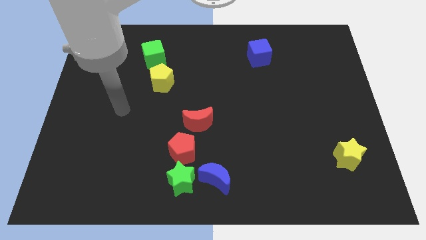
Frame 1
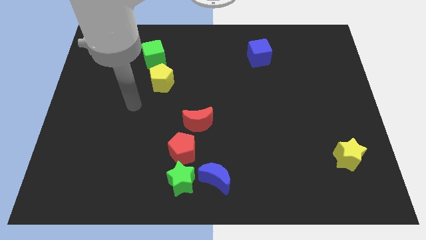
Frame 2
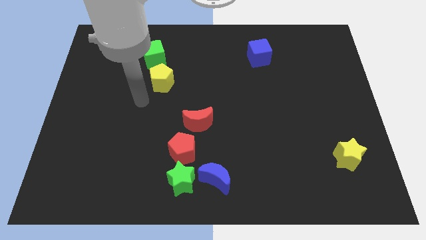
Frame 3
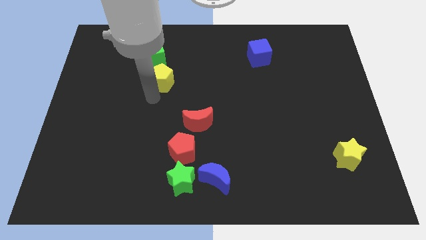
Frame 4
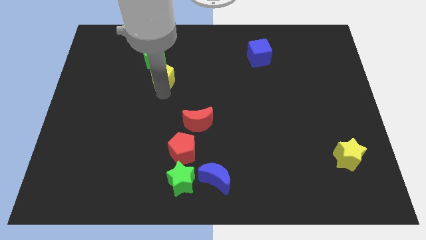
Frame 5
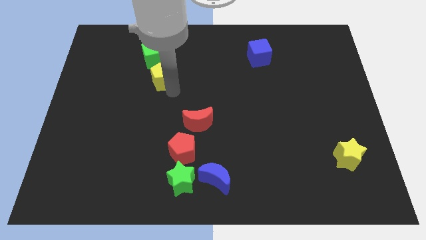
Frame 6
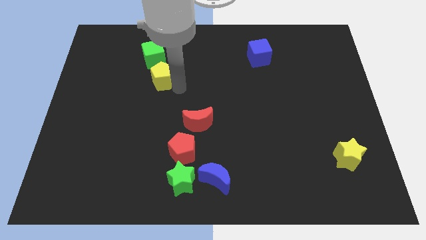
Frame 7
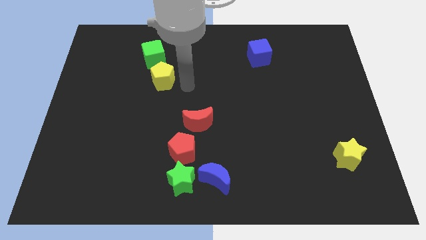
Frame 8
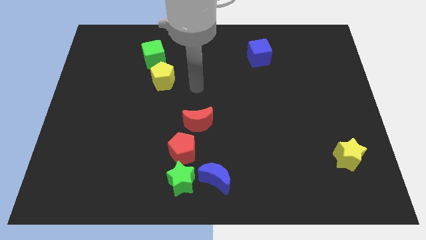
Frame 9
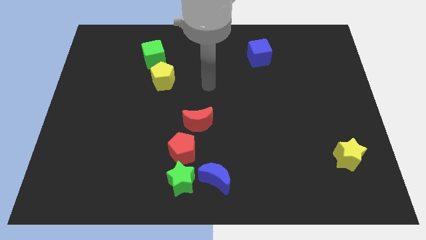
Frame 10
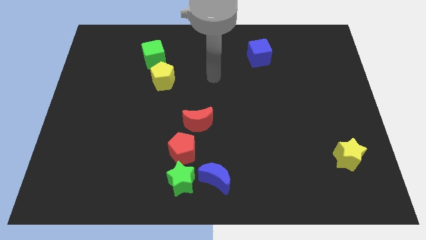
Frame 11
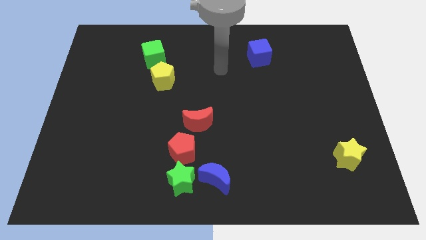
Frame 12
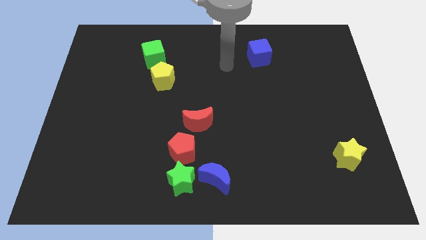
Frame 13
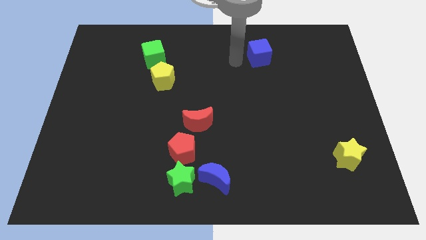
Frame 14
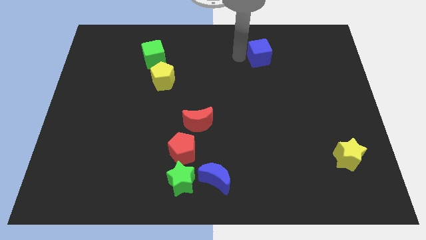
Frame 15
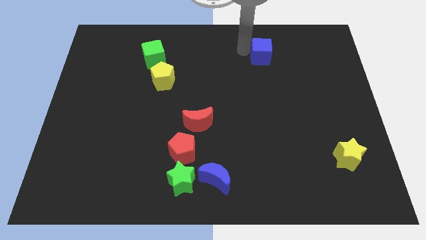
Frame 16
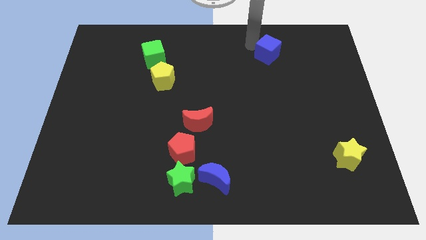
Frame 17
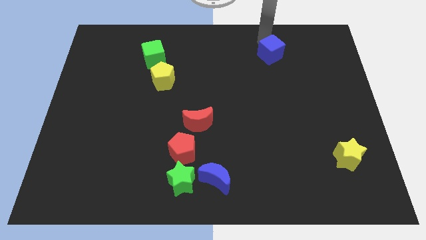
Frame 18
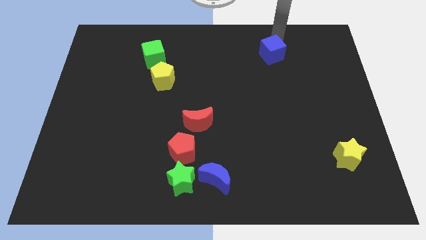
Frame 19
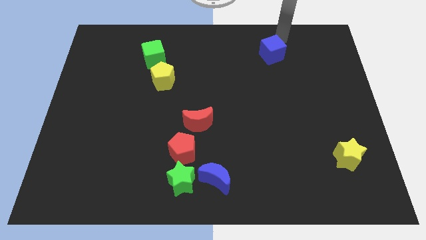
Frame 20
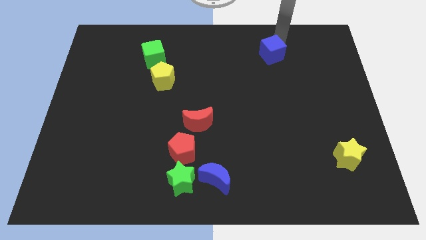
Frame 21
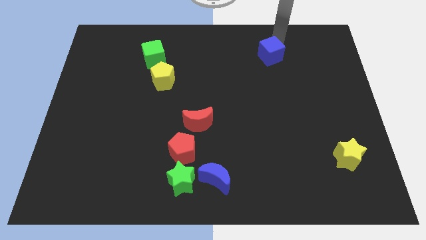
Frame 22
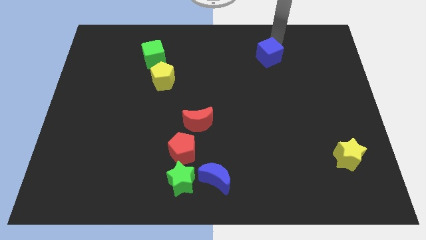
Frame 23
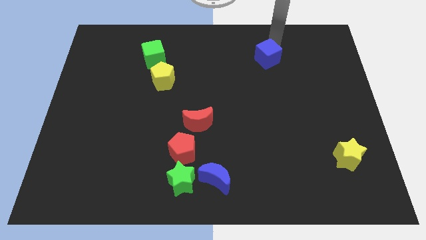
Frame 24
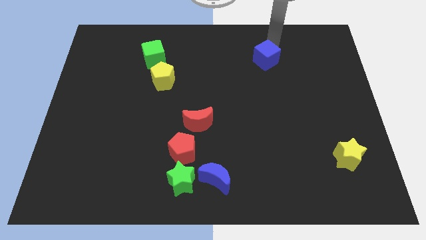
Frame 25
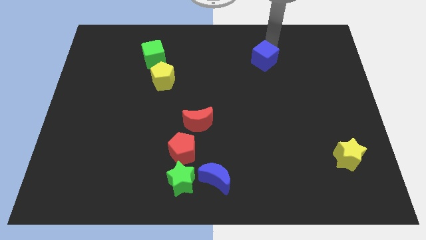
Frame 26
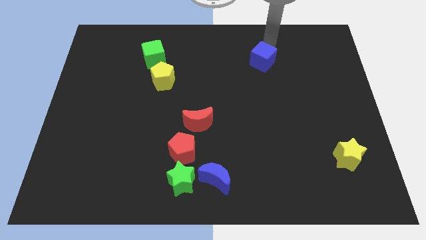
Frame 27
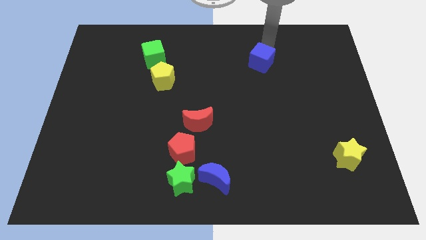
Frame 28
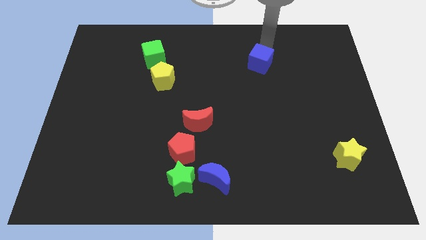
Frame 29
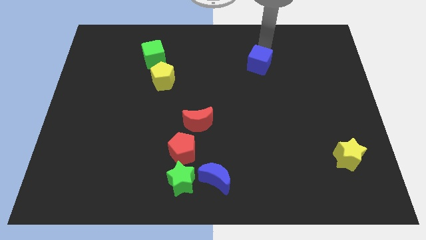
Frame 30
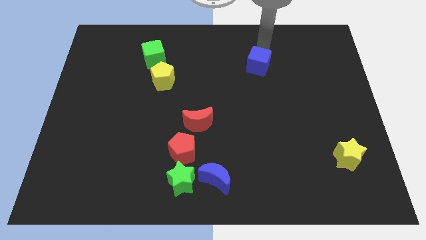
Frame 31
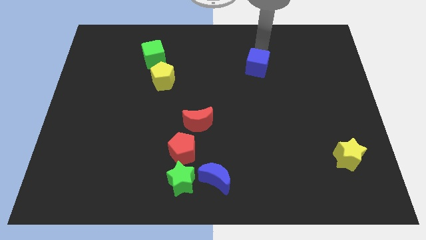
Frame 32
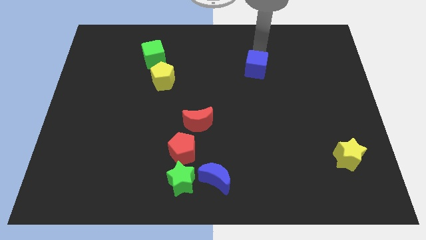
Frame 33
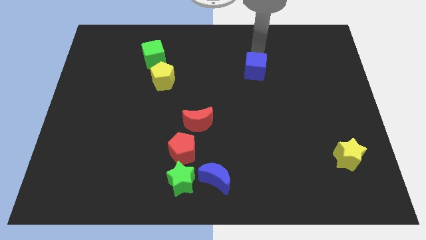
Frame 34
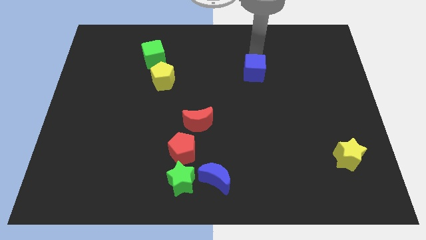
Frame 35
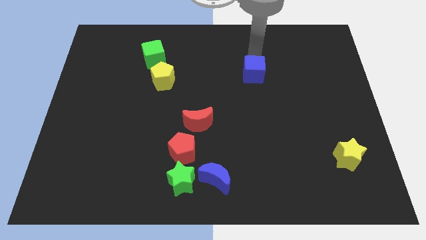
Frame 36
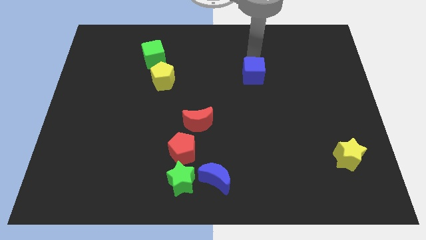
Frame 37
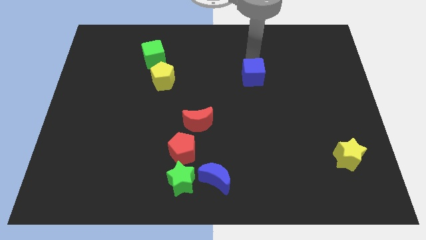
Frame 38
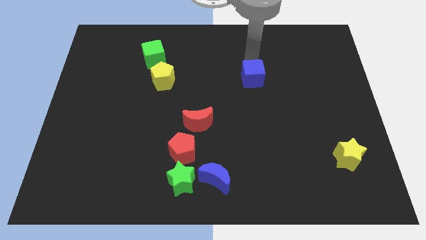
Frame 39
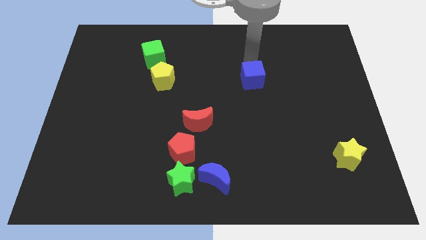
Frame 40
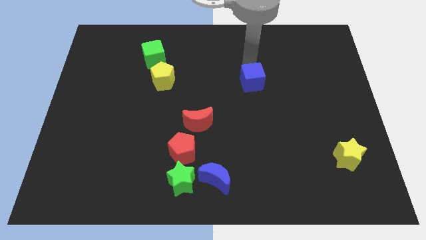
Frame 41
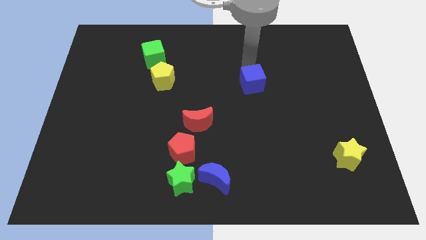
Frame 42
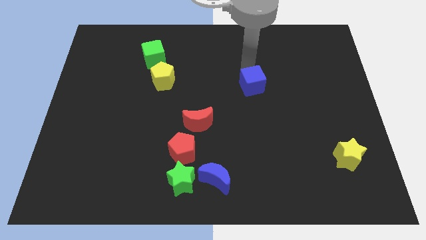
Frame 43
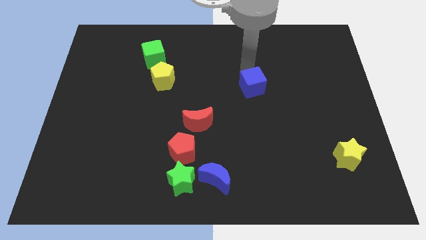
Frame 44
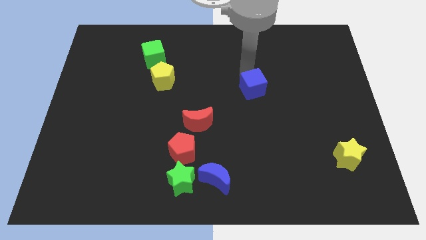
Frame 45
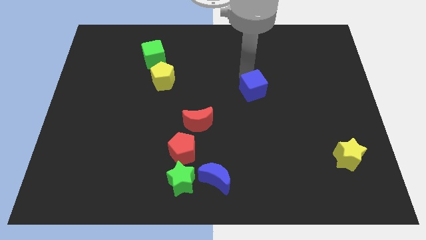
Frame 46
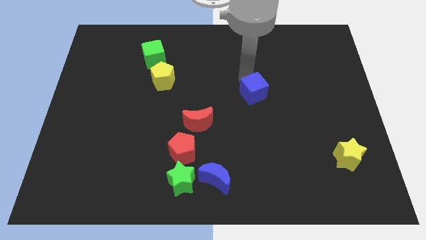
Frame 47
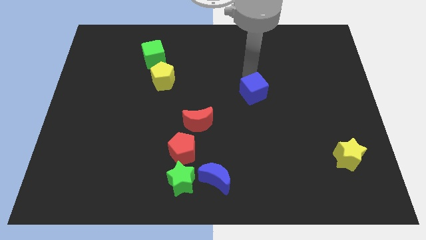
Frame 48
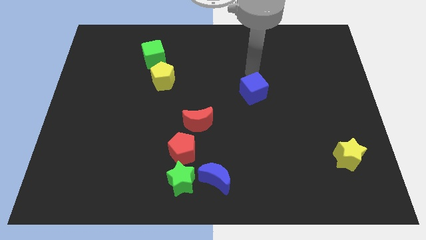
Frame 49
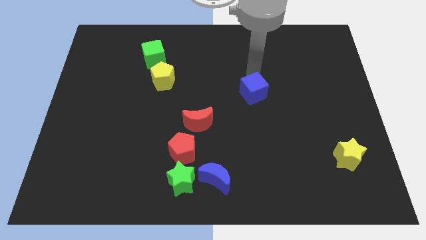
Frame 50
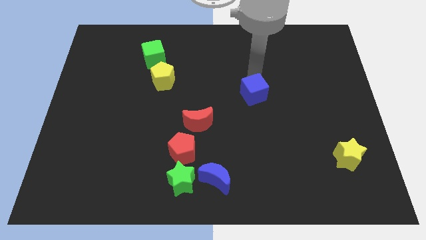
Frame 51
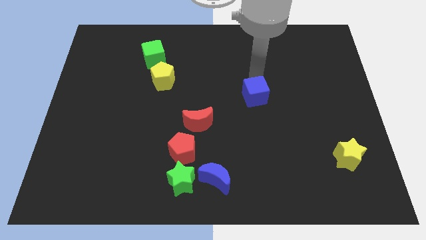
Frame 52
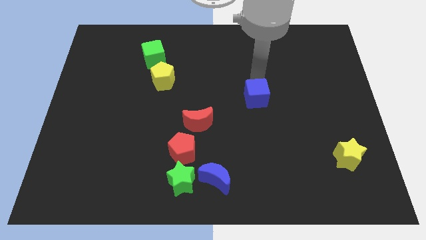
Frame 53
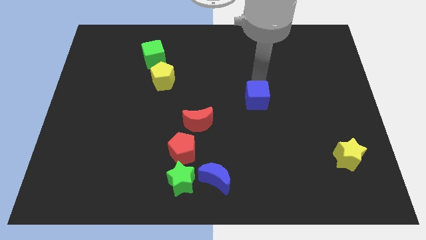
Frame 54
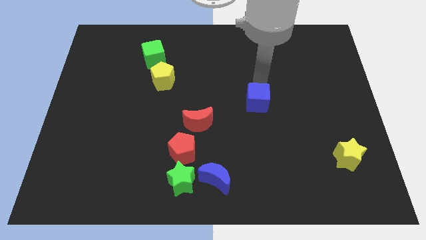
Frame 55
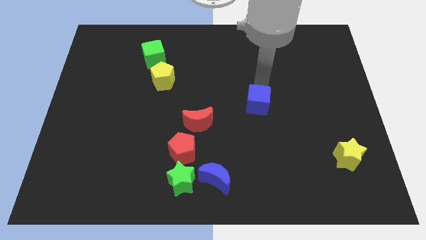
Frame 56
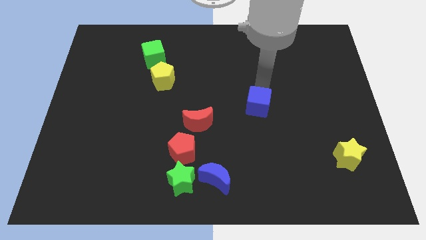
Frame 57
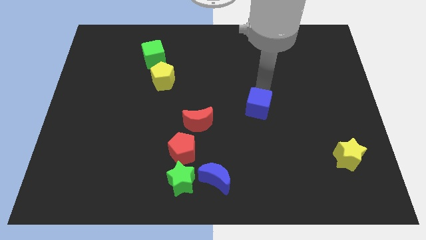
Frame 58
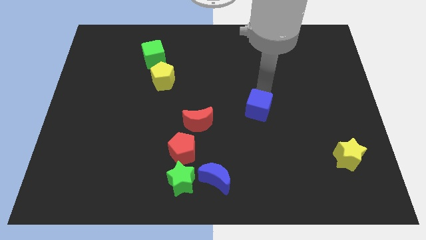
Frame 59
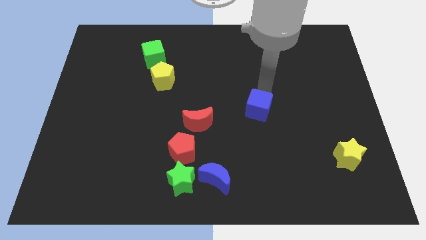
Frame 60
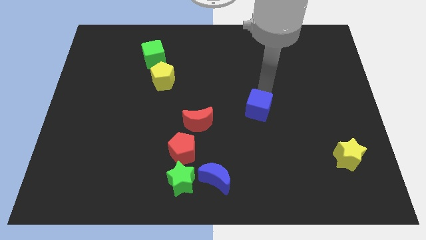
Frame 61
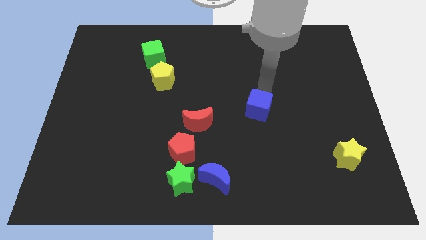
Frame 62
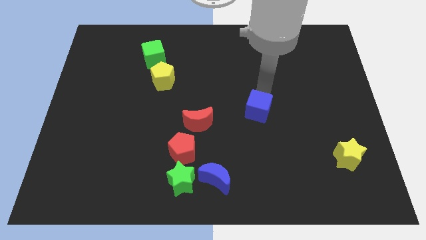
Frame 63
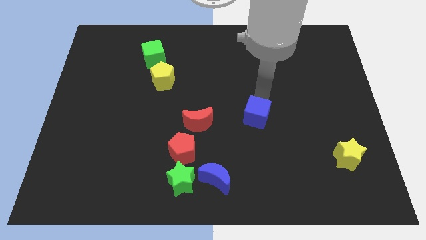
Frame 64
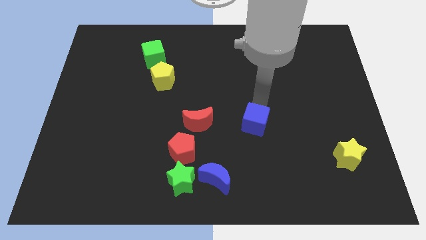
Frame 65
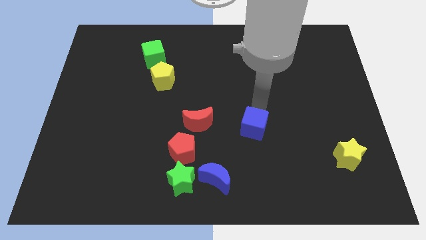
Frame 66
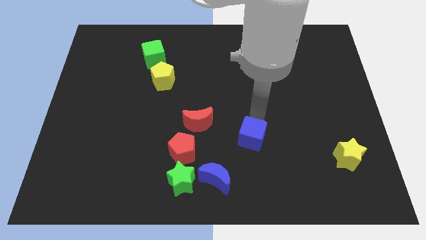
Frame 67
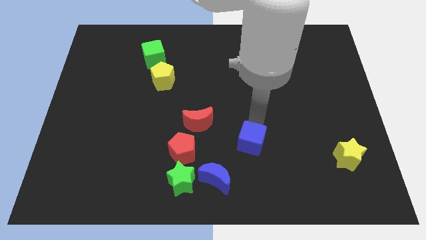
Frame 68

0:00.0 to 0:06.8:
slide the blue cube to the top right of the blue moon

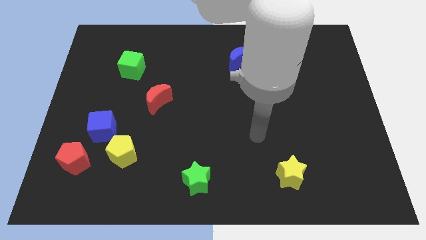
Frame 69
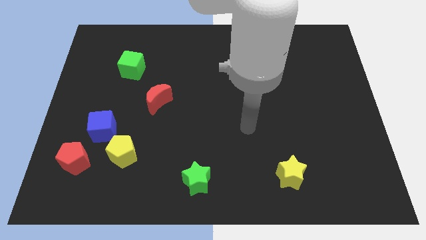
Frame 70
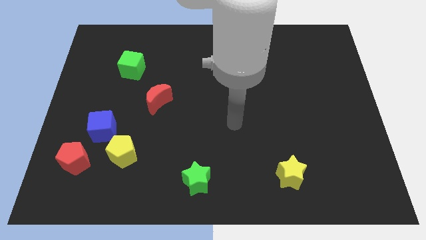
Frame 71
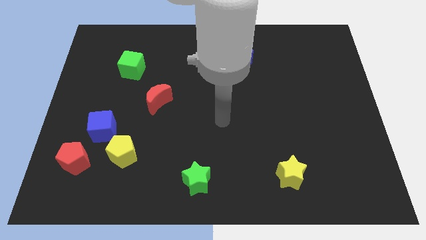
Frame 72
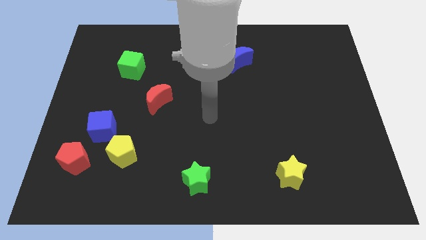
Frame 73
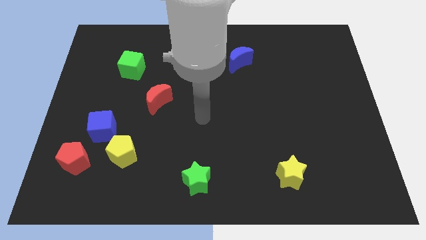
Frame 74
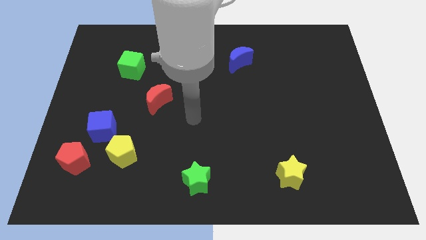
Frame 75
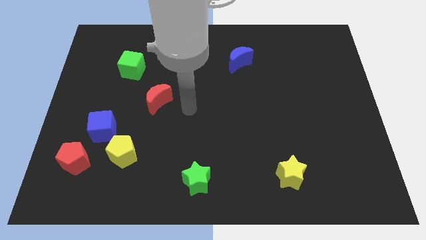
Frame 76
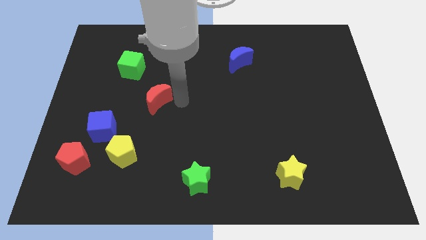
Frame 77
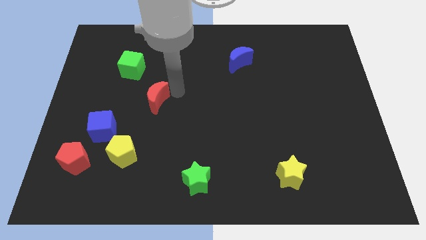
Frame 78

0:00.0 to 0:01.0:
slide the green cube diagonally up and to the left of the red moon
